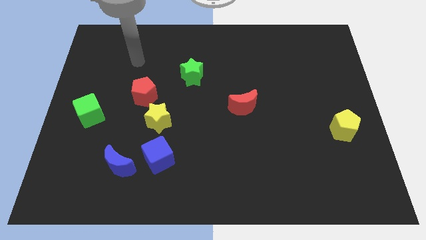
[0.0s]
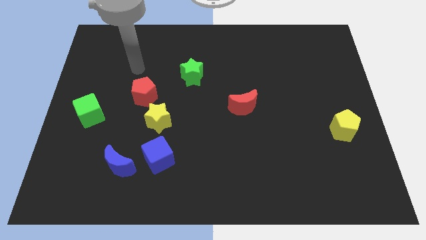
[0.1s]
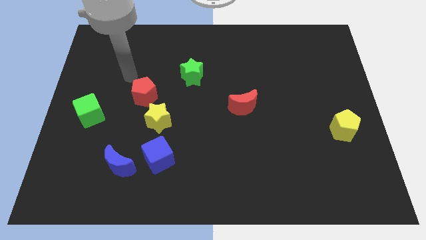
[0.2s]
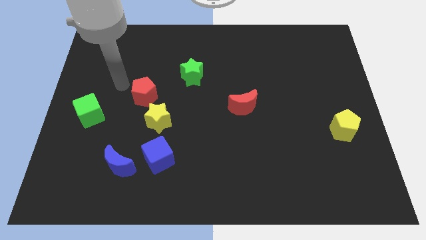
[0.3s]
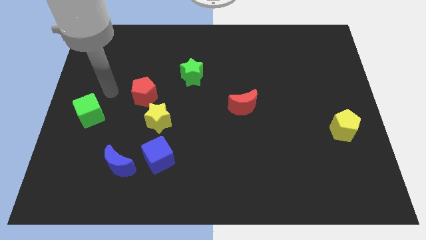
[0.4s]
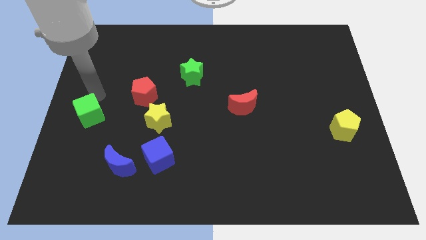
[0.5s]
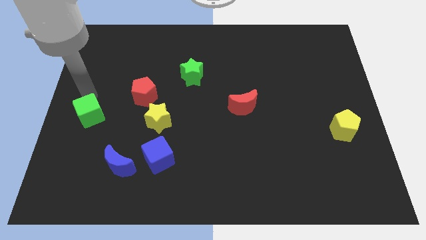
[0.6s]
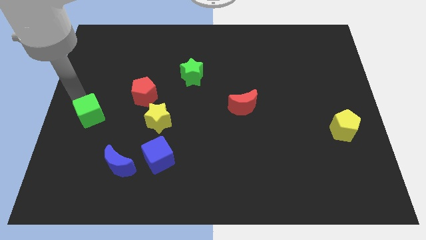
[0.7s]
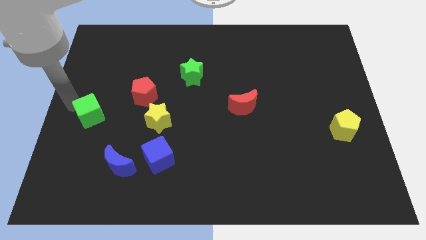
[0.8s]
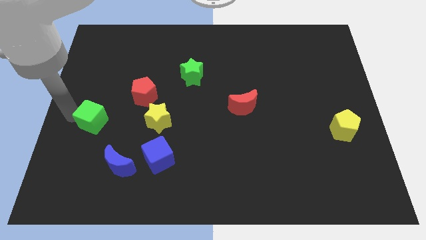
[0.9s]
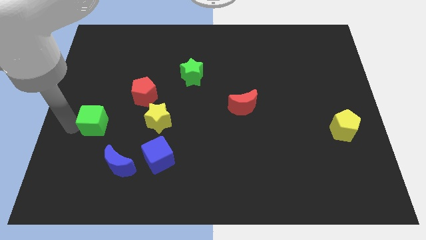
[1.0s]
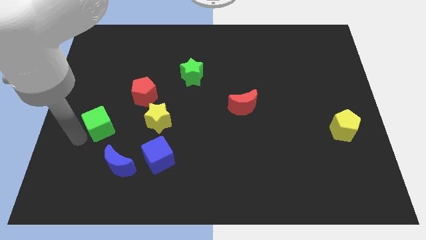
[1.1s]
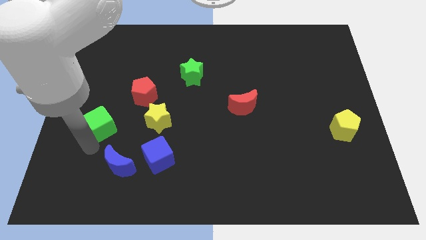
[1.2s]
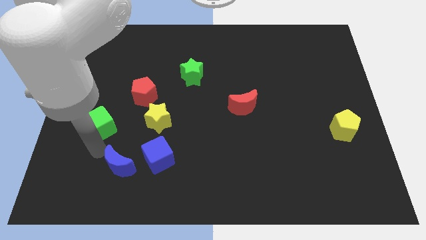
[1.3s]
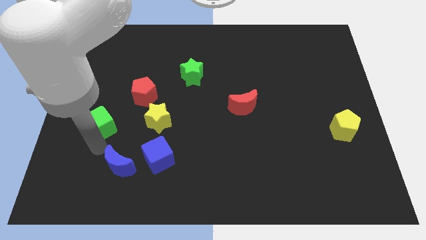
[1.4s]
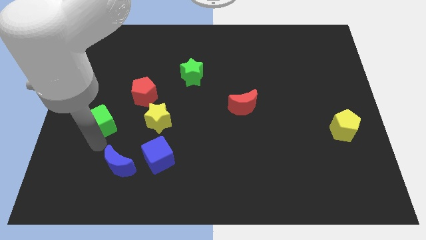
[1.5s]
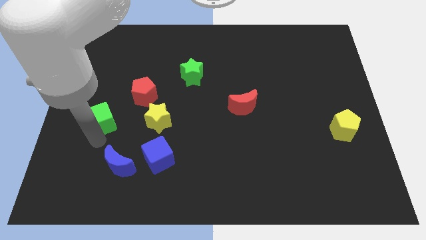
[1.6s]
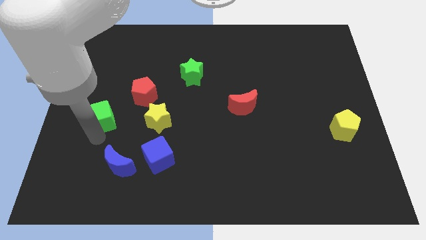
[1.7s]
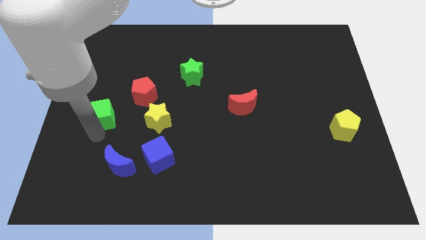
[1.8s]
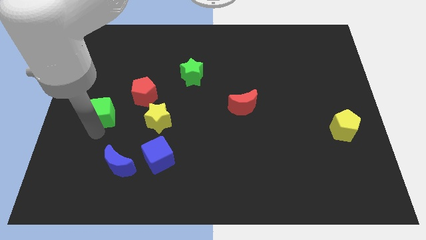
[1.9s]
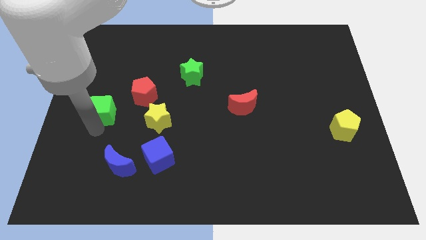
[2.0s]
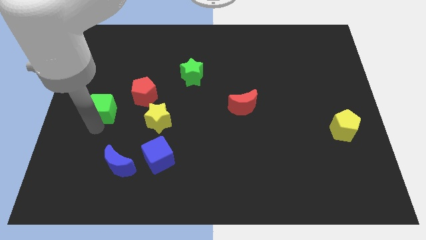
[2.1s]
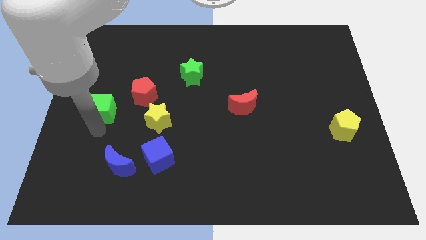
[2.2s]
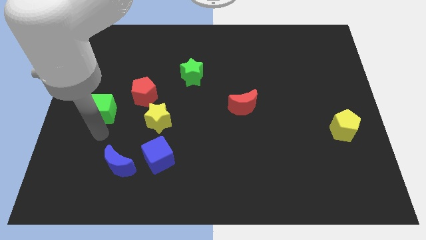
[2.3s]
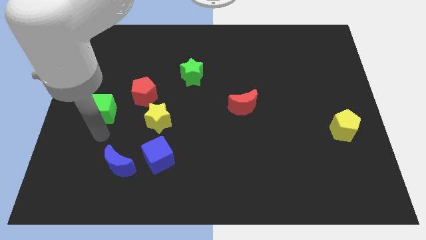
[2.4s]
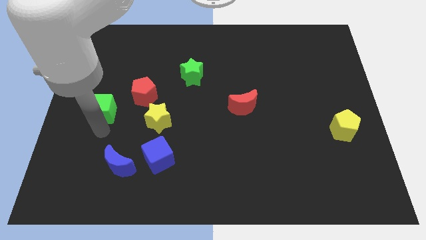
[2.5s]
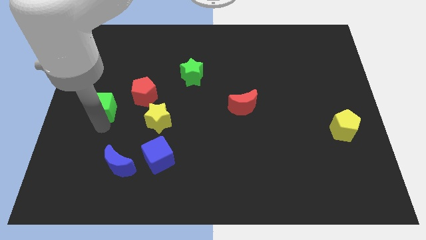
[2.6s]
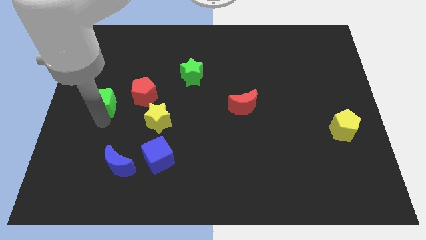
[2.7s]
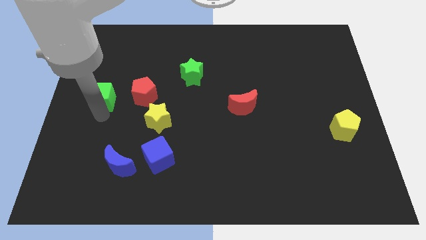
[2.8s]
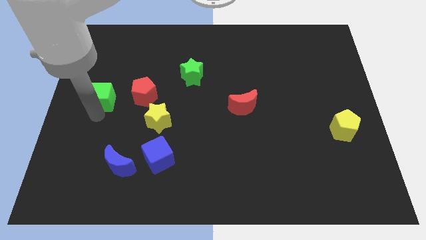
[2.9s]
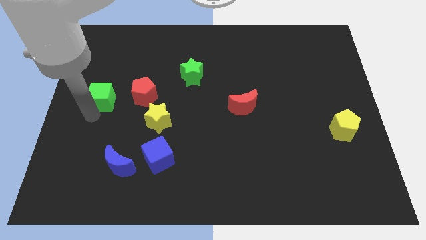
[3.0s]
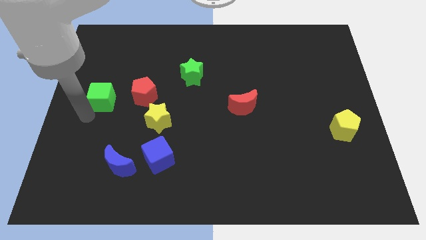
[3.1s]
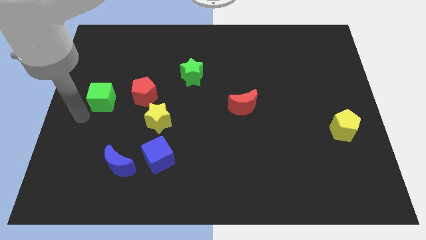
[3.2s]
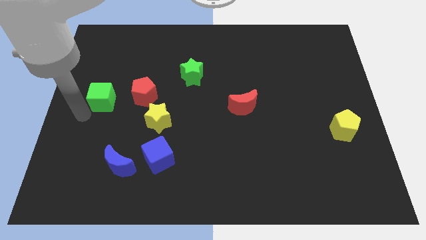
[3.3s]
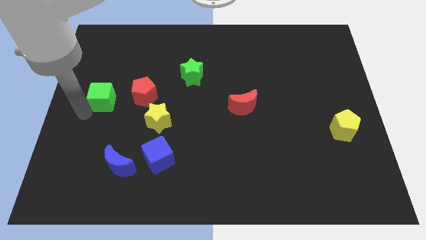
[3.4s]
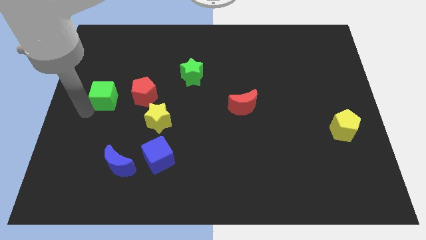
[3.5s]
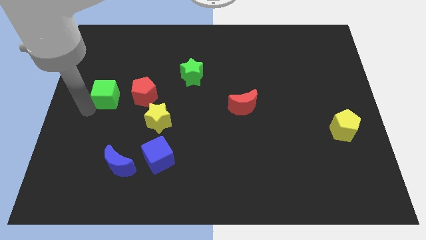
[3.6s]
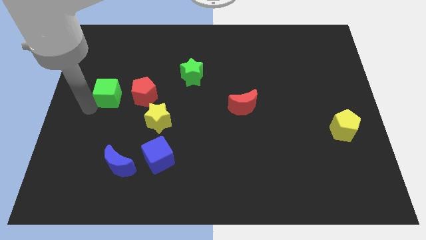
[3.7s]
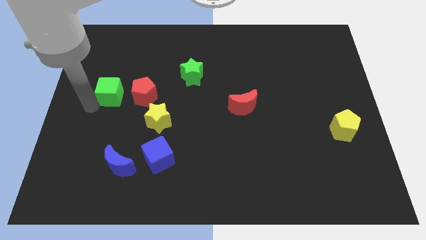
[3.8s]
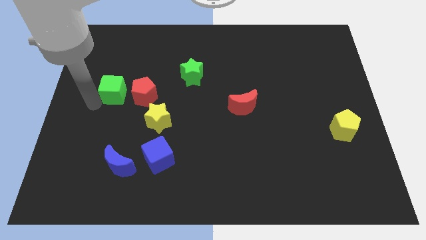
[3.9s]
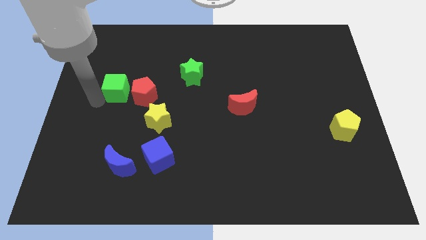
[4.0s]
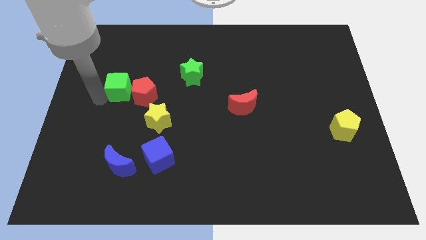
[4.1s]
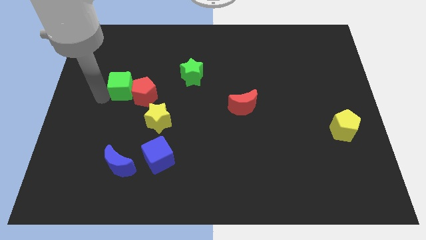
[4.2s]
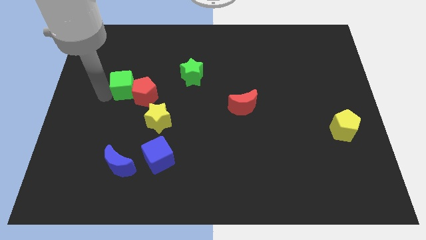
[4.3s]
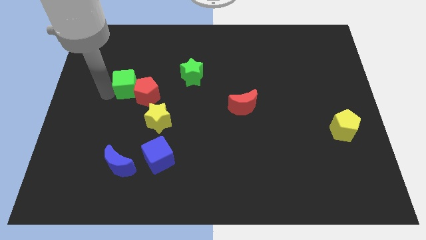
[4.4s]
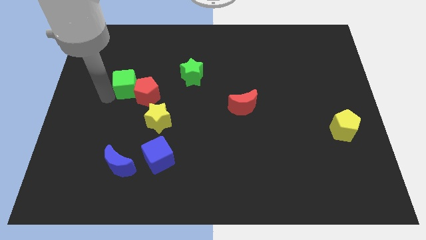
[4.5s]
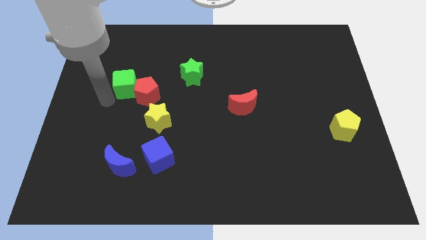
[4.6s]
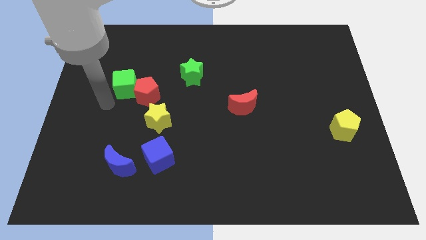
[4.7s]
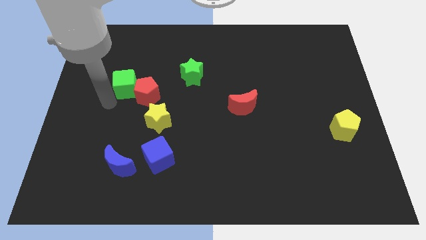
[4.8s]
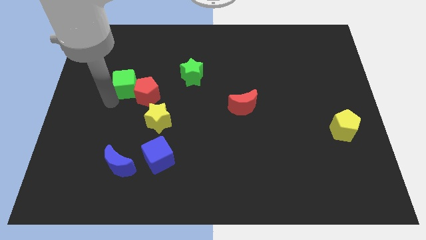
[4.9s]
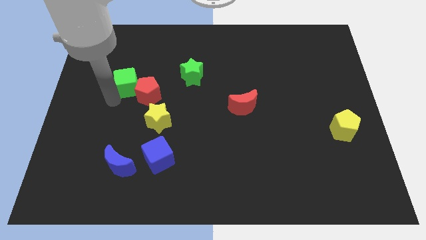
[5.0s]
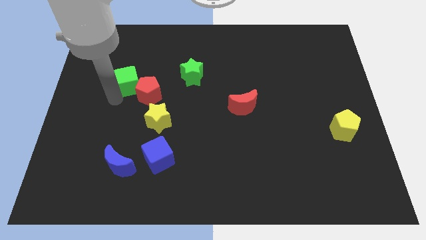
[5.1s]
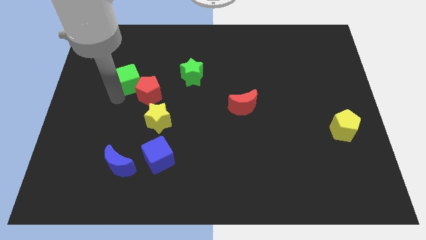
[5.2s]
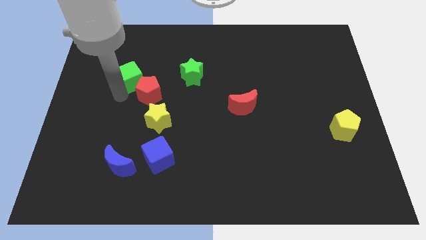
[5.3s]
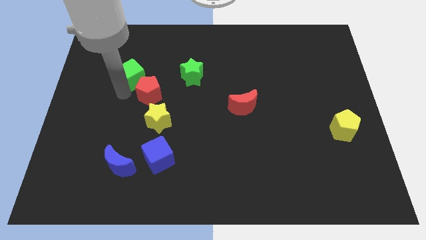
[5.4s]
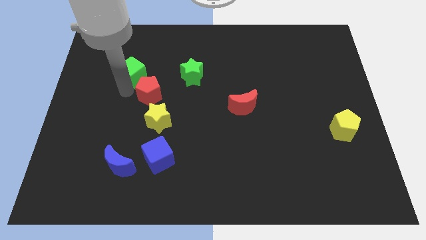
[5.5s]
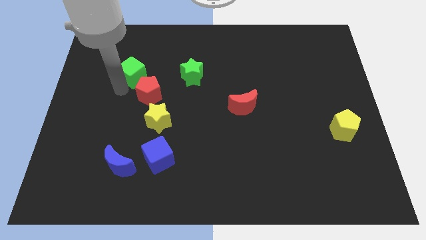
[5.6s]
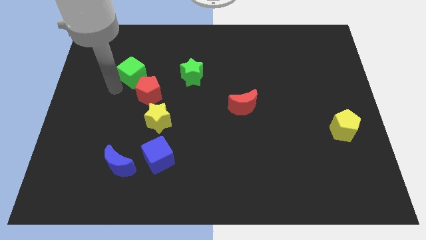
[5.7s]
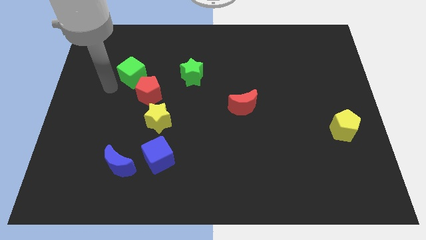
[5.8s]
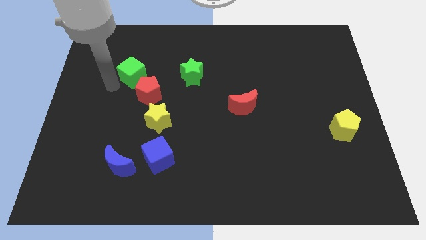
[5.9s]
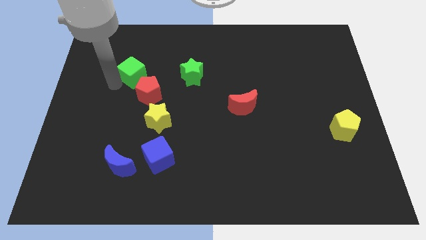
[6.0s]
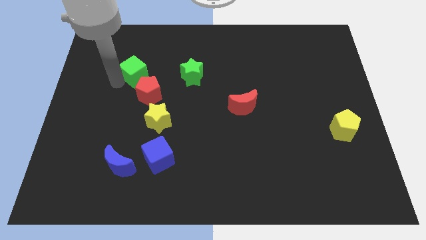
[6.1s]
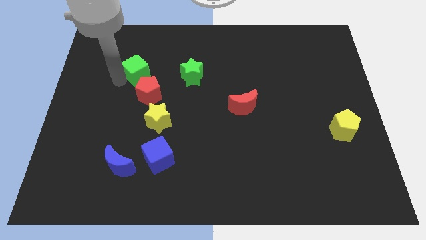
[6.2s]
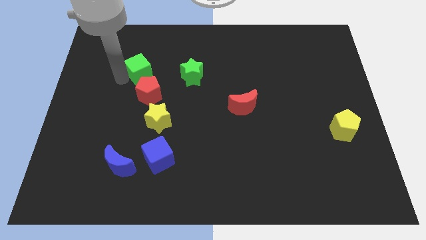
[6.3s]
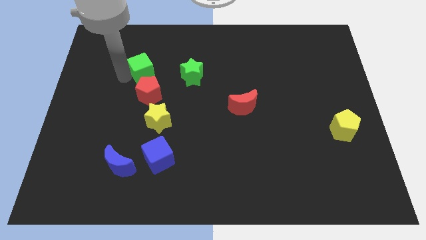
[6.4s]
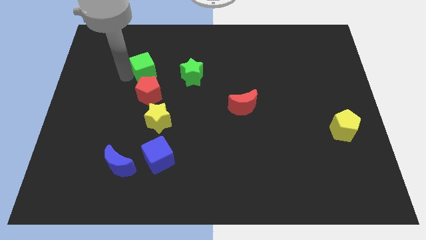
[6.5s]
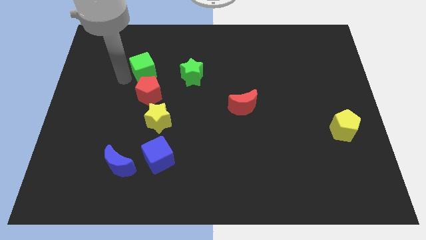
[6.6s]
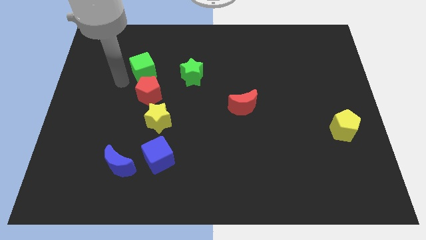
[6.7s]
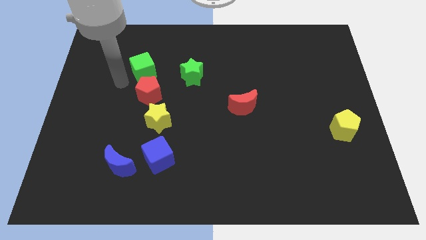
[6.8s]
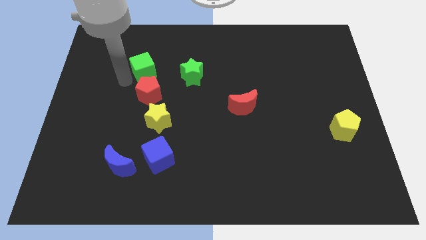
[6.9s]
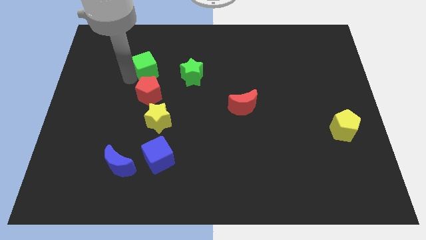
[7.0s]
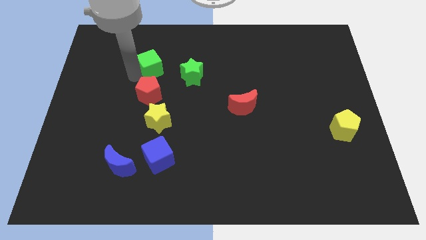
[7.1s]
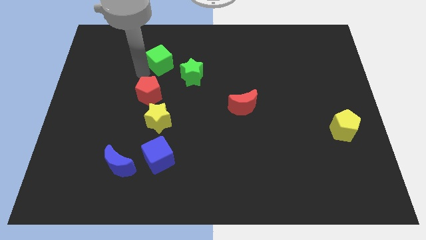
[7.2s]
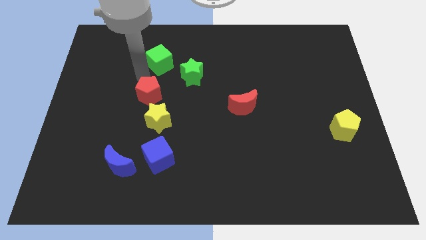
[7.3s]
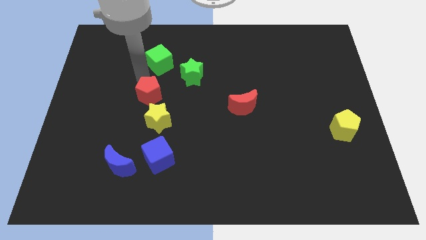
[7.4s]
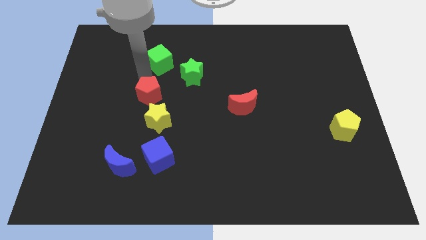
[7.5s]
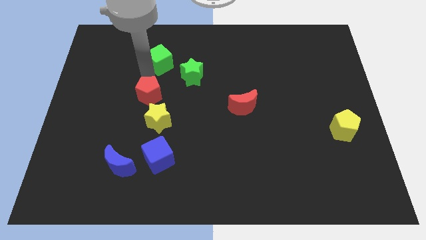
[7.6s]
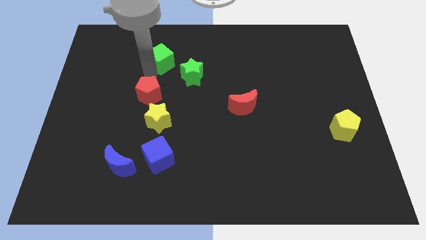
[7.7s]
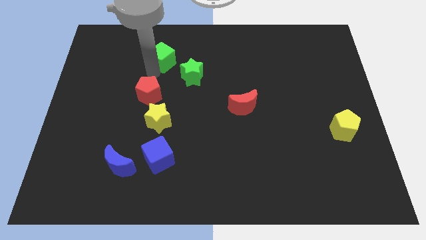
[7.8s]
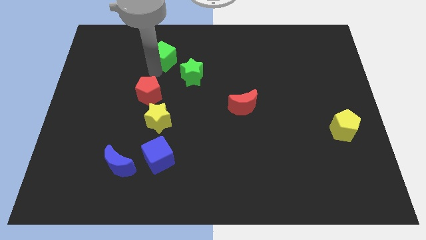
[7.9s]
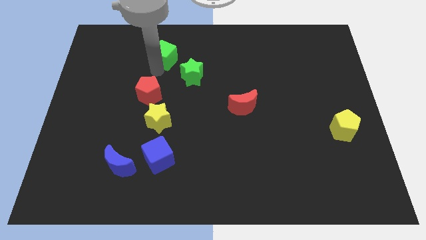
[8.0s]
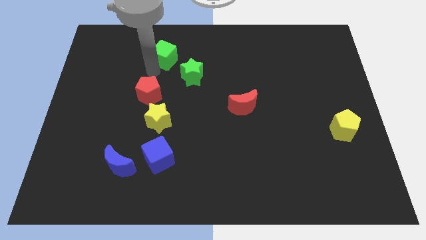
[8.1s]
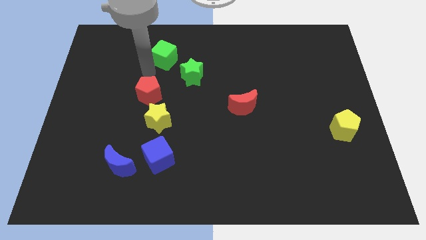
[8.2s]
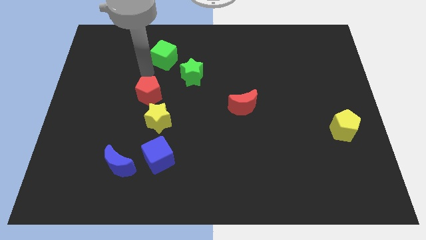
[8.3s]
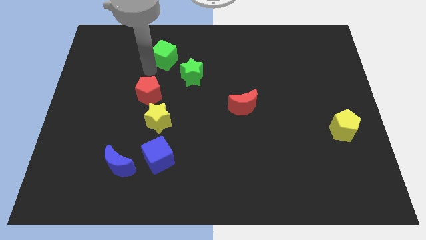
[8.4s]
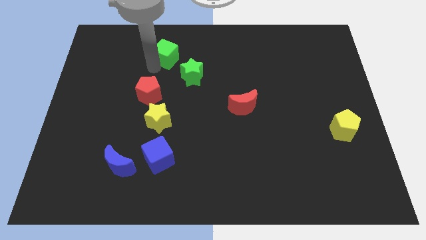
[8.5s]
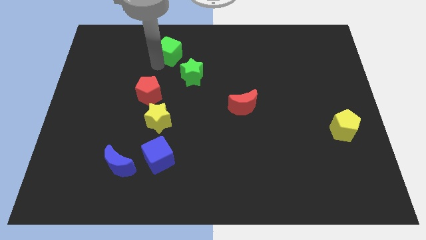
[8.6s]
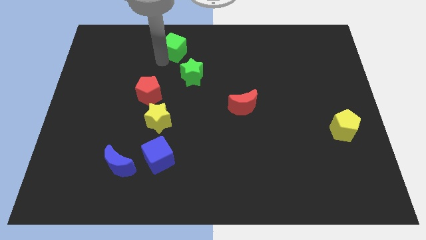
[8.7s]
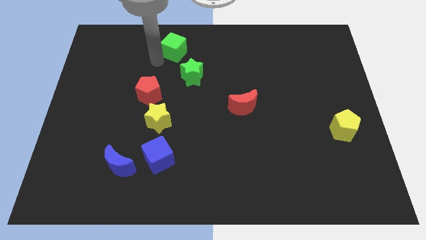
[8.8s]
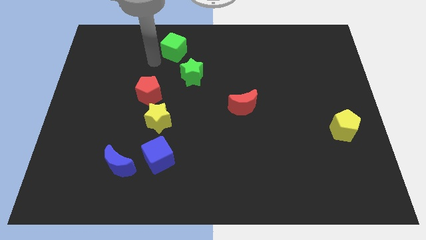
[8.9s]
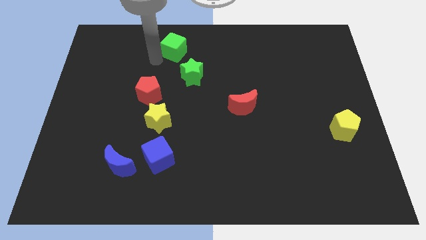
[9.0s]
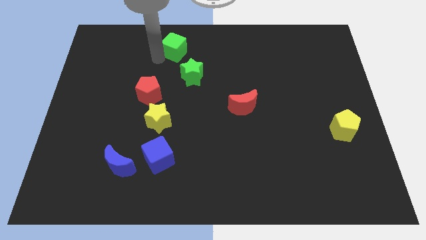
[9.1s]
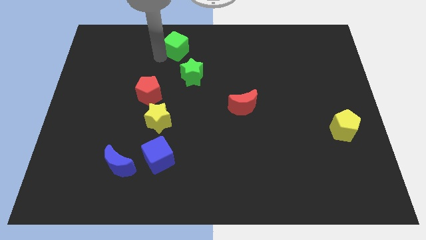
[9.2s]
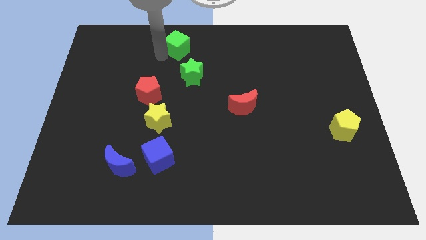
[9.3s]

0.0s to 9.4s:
slide the green cube to the top
